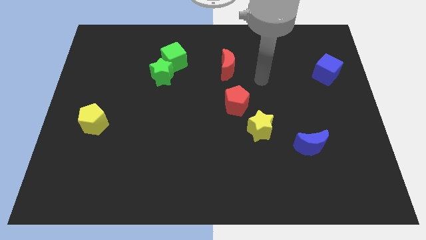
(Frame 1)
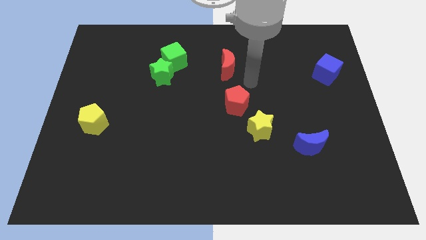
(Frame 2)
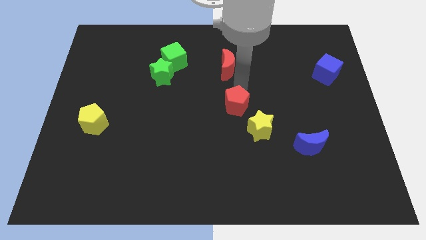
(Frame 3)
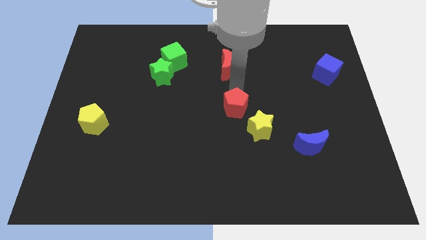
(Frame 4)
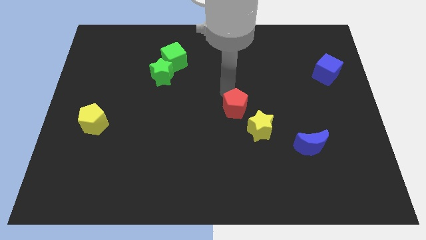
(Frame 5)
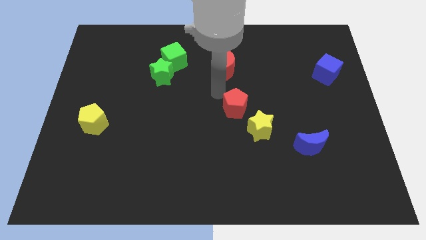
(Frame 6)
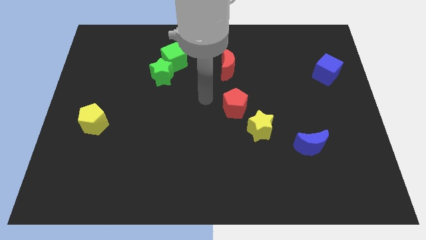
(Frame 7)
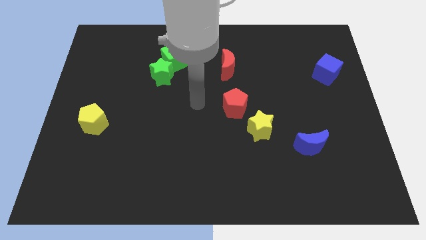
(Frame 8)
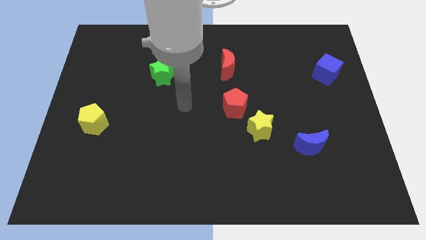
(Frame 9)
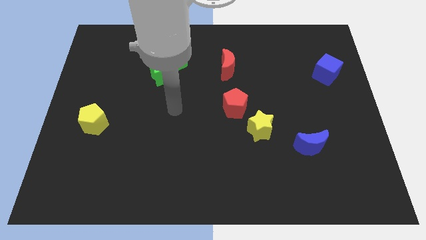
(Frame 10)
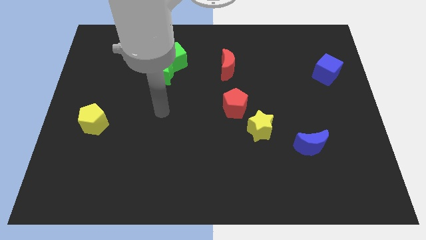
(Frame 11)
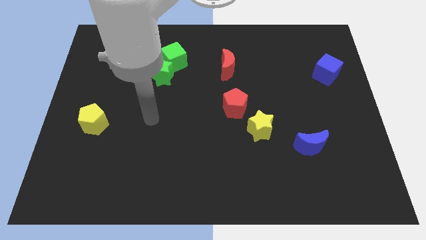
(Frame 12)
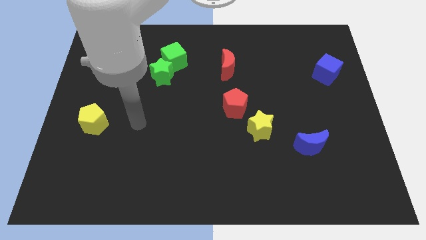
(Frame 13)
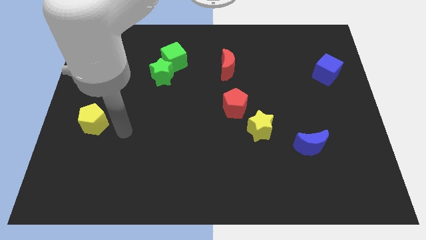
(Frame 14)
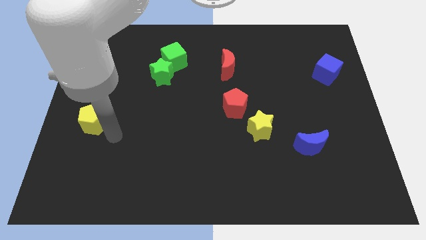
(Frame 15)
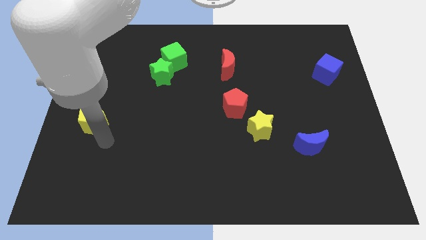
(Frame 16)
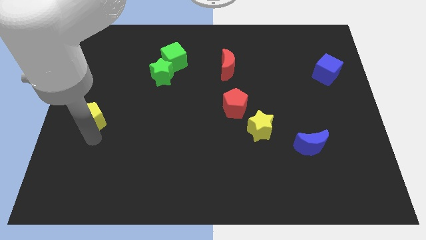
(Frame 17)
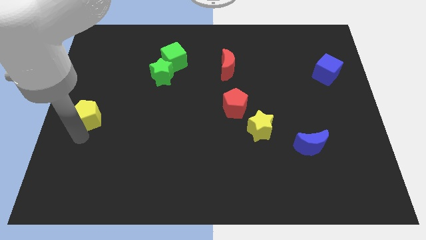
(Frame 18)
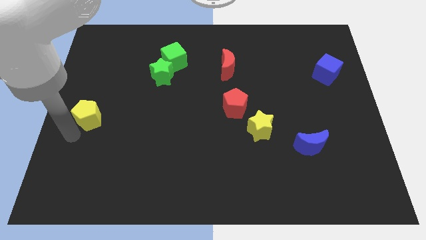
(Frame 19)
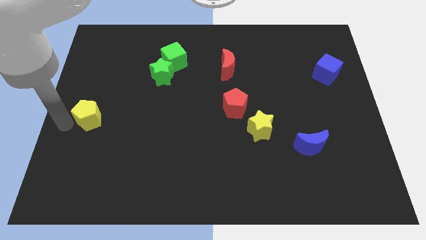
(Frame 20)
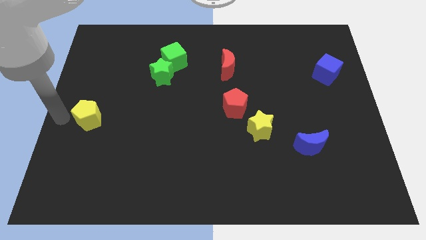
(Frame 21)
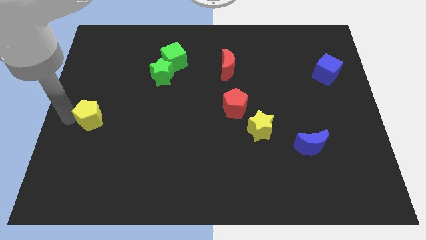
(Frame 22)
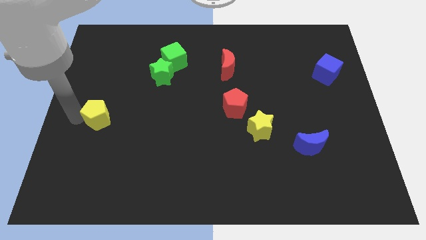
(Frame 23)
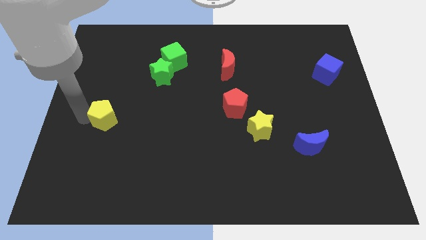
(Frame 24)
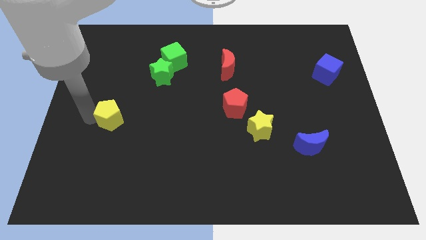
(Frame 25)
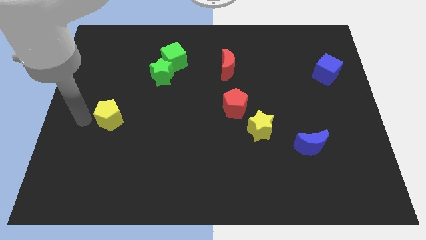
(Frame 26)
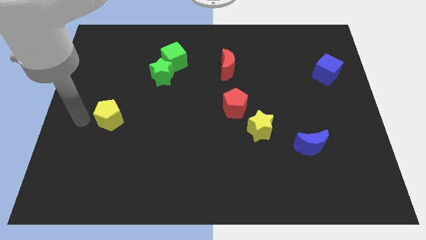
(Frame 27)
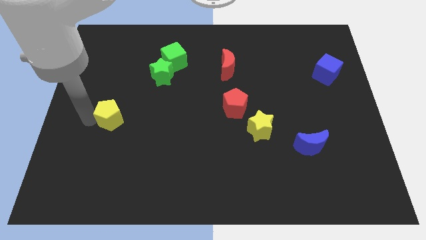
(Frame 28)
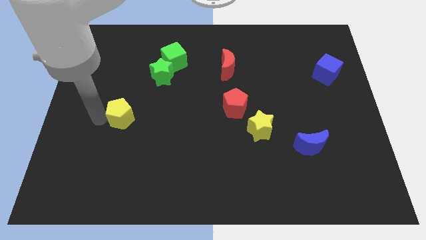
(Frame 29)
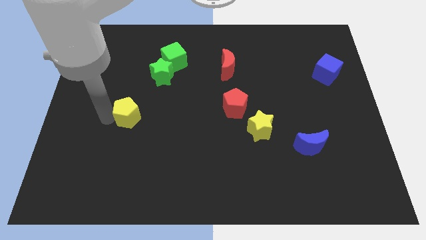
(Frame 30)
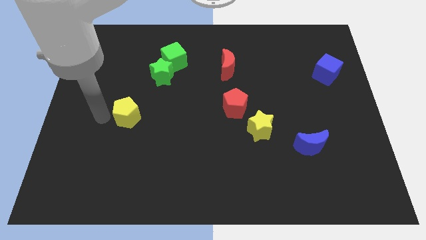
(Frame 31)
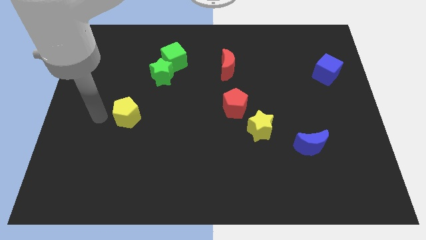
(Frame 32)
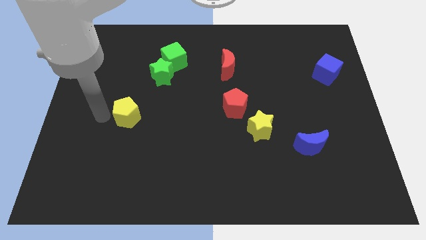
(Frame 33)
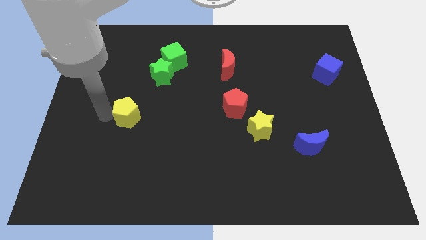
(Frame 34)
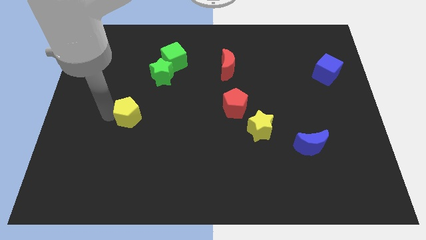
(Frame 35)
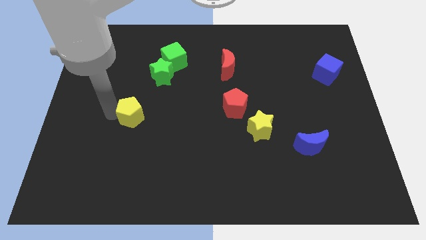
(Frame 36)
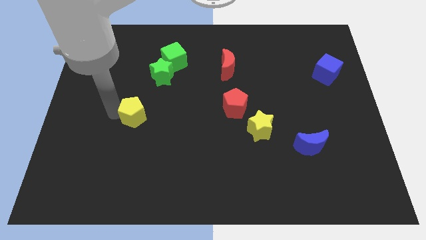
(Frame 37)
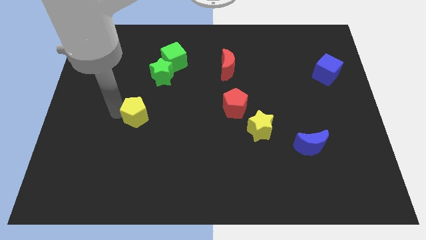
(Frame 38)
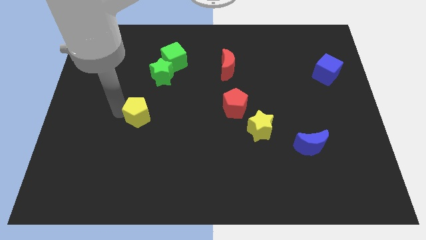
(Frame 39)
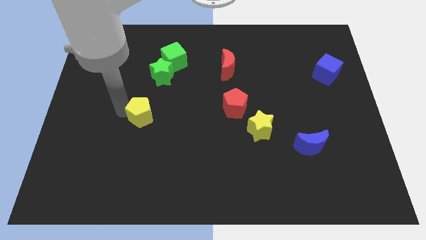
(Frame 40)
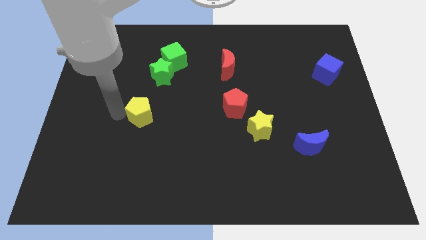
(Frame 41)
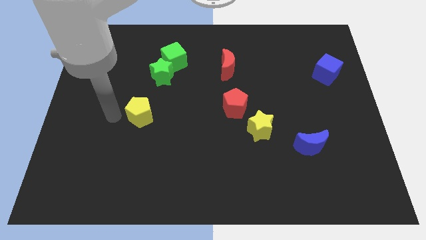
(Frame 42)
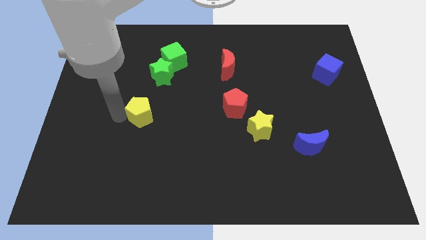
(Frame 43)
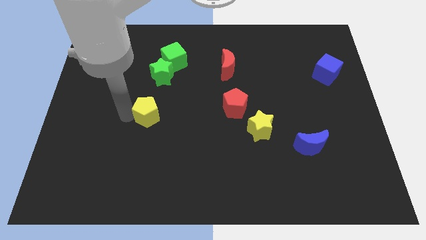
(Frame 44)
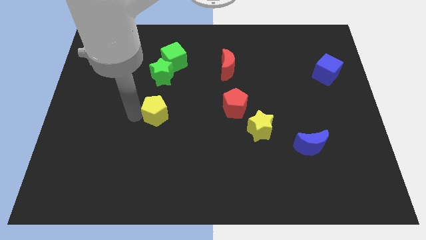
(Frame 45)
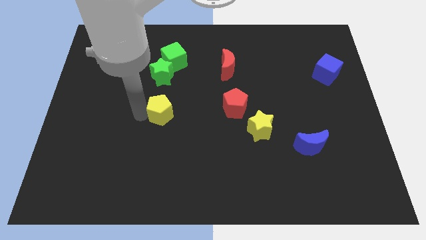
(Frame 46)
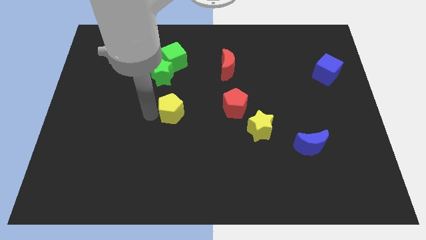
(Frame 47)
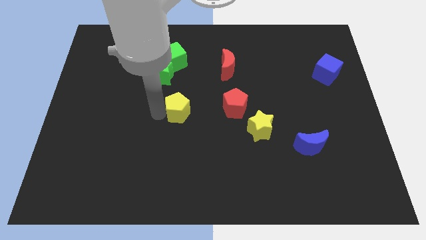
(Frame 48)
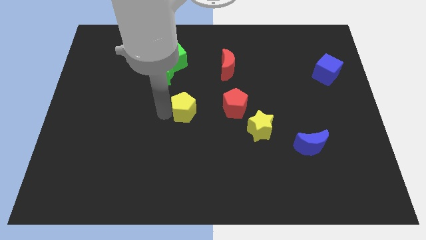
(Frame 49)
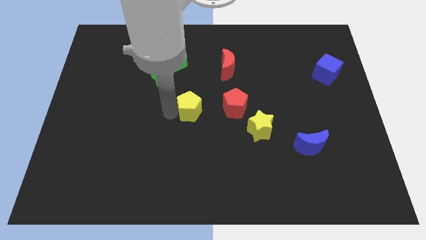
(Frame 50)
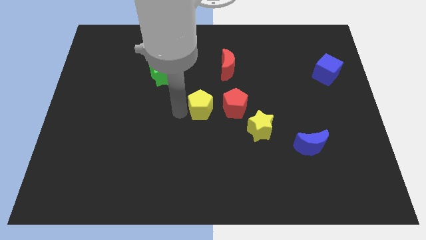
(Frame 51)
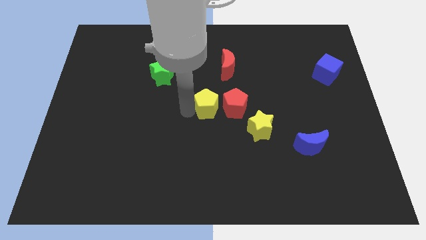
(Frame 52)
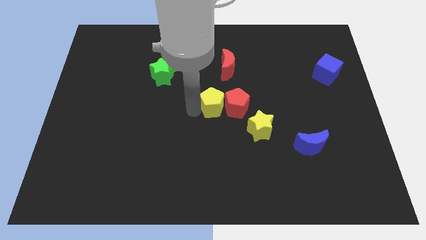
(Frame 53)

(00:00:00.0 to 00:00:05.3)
put the yellow pentagon towards the red pentagon

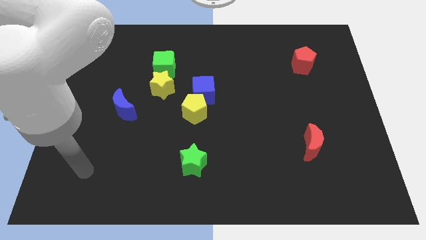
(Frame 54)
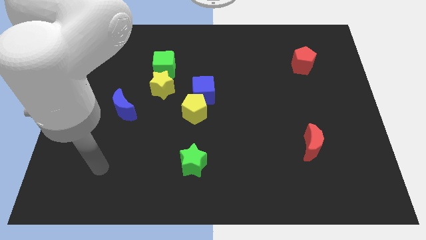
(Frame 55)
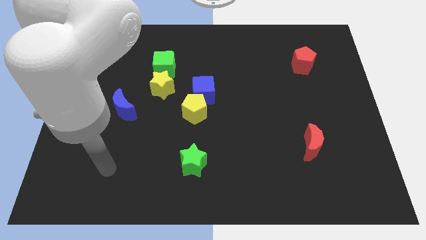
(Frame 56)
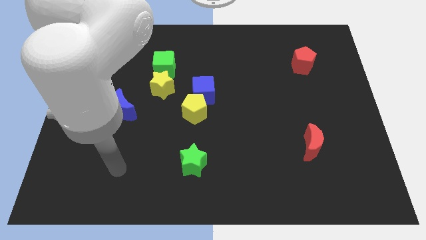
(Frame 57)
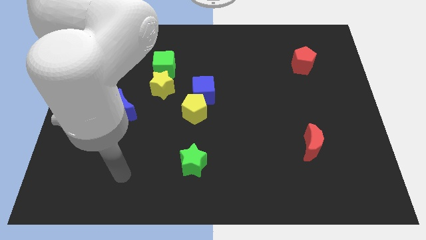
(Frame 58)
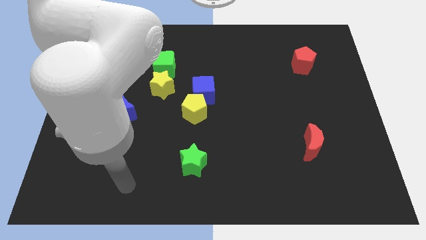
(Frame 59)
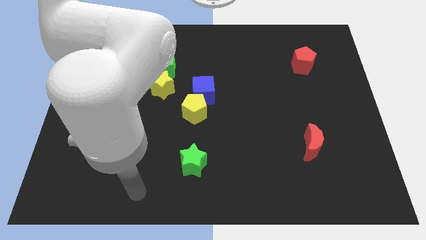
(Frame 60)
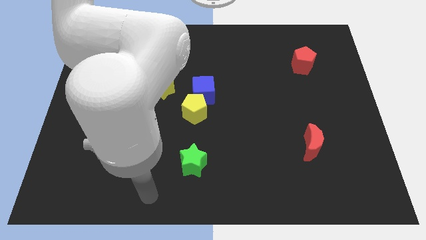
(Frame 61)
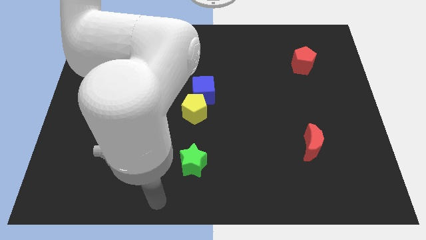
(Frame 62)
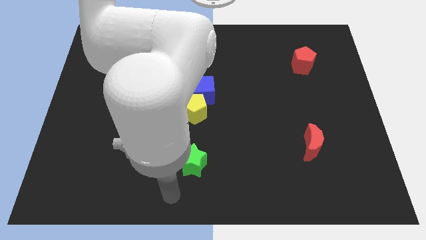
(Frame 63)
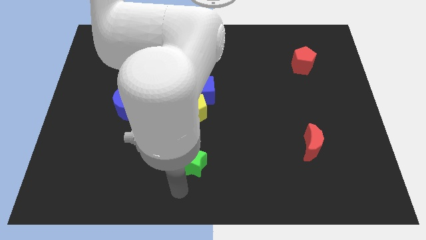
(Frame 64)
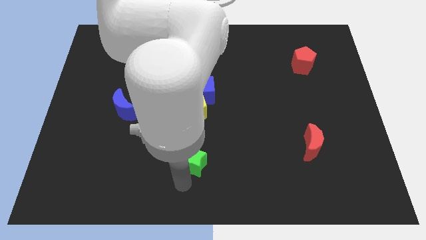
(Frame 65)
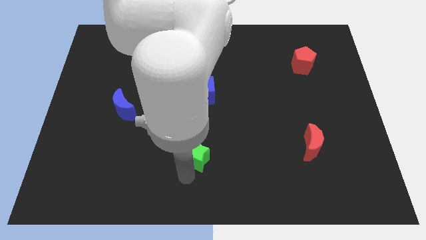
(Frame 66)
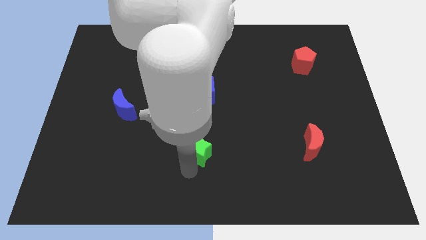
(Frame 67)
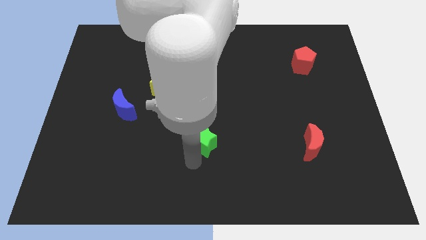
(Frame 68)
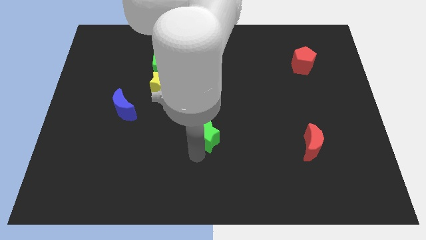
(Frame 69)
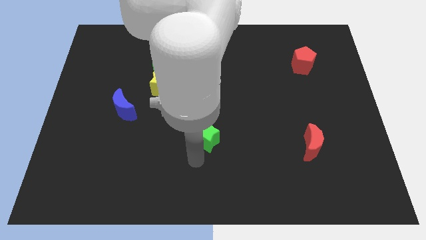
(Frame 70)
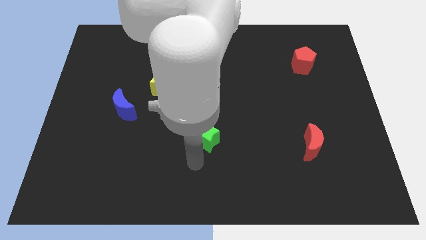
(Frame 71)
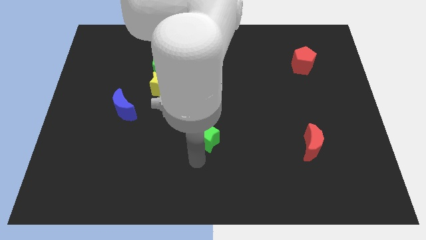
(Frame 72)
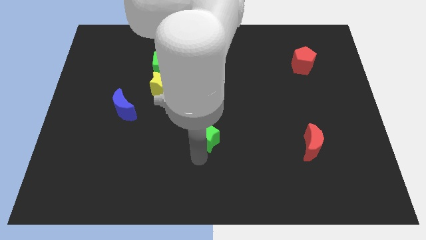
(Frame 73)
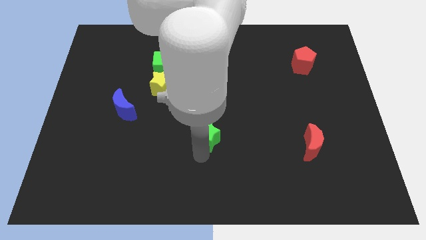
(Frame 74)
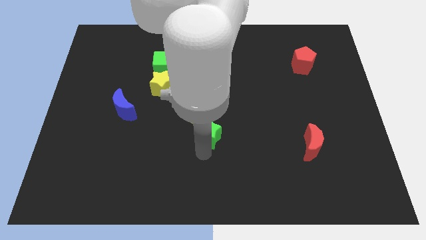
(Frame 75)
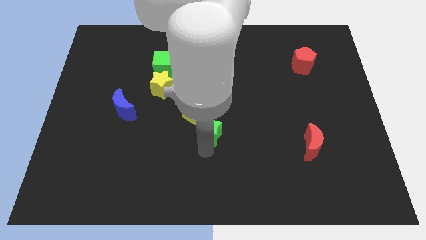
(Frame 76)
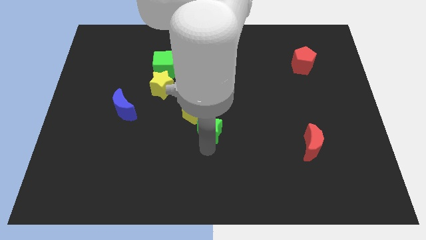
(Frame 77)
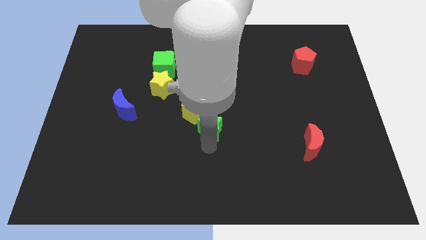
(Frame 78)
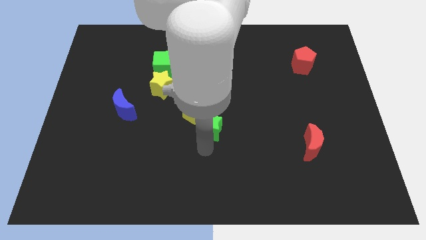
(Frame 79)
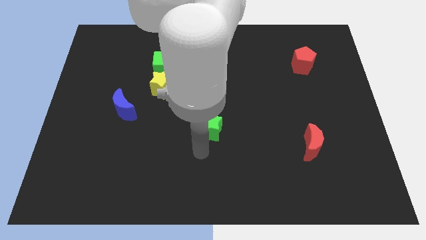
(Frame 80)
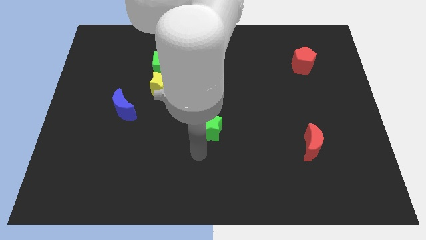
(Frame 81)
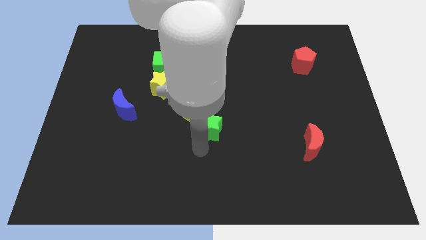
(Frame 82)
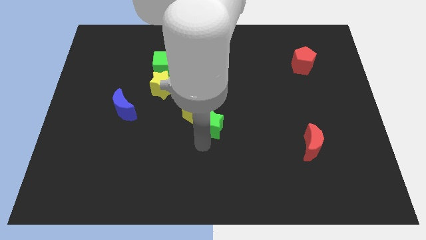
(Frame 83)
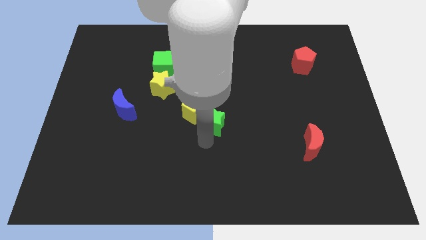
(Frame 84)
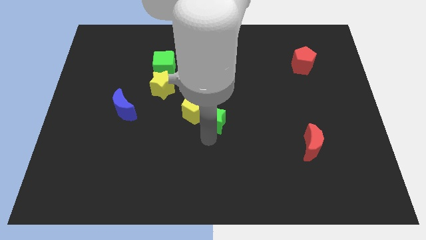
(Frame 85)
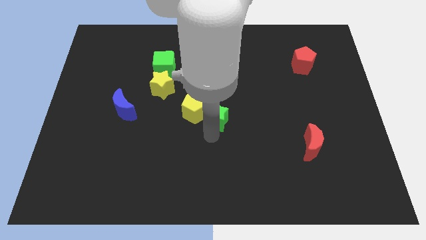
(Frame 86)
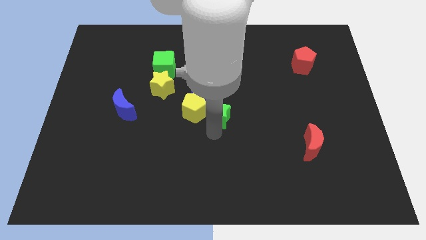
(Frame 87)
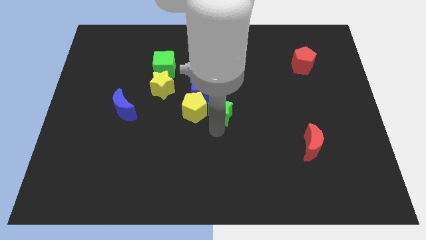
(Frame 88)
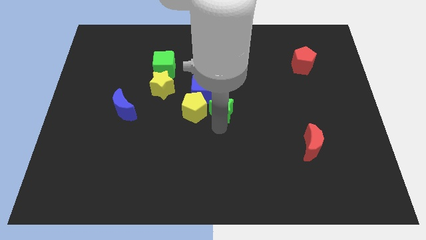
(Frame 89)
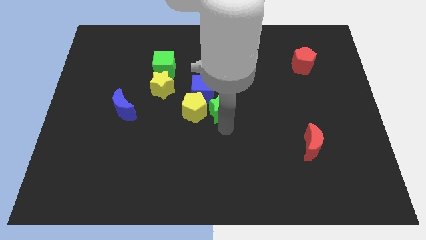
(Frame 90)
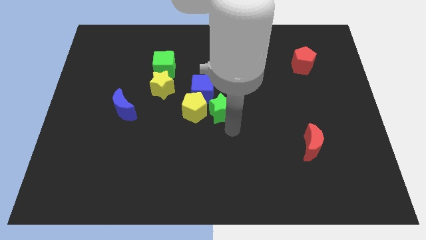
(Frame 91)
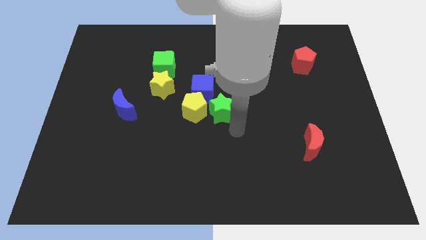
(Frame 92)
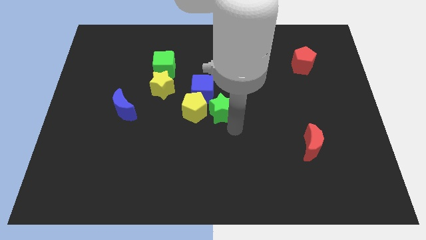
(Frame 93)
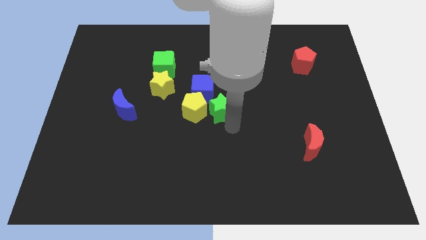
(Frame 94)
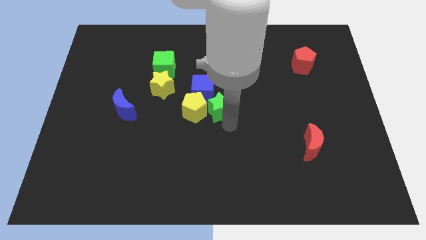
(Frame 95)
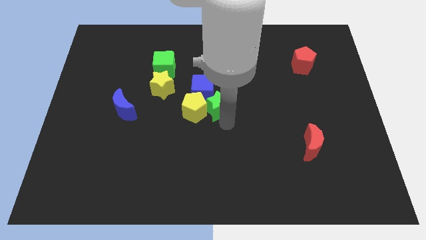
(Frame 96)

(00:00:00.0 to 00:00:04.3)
push the green star next to the blue cube
